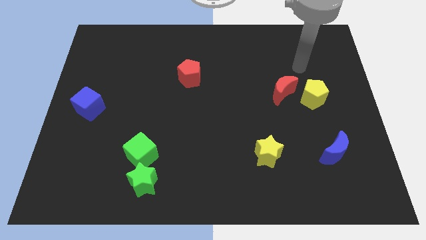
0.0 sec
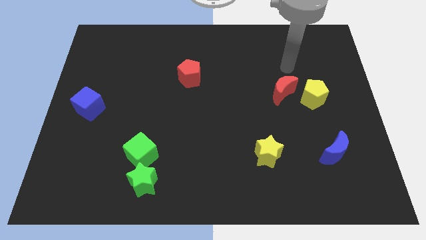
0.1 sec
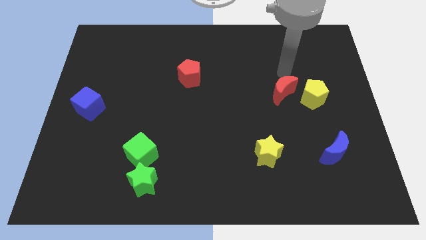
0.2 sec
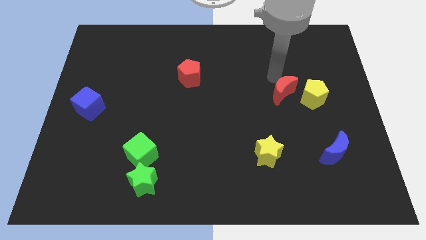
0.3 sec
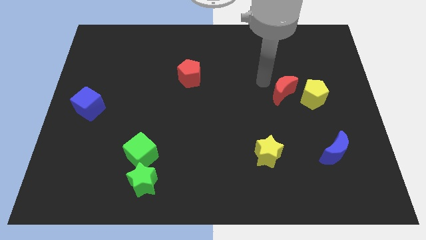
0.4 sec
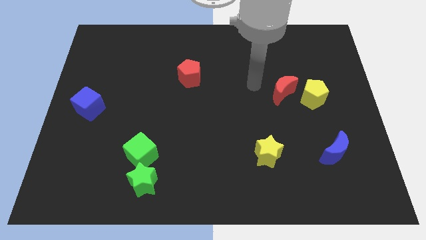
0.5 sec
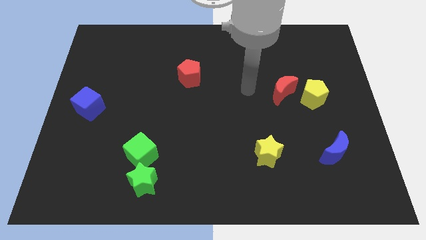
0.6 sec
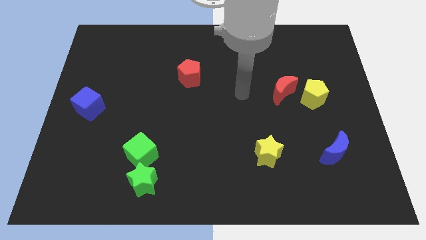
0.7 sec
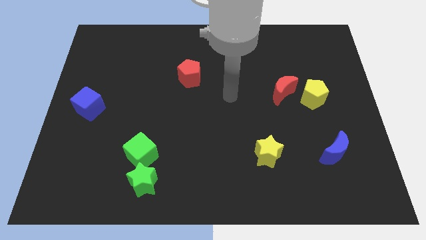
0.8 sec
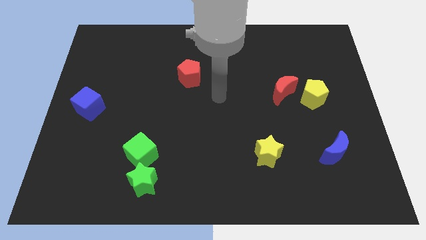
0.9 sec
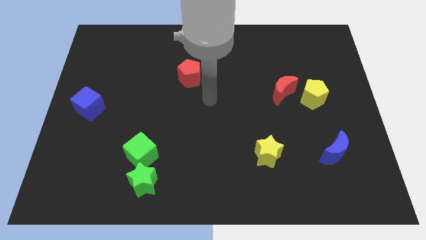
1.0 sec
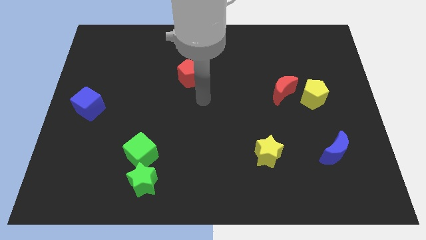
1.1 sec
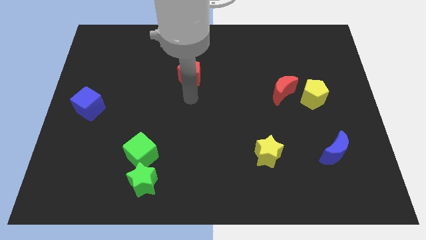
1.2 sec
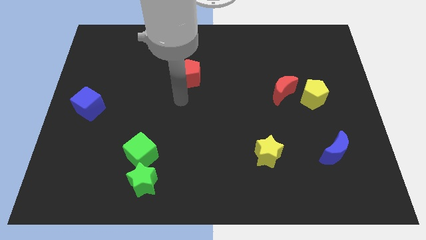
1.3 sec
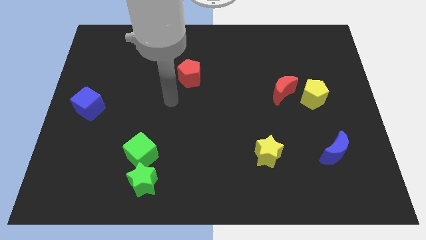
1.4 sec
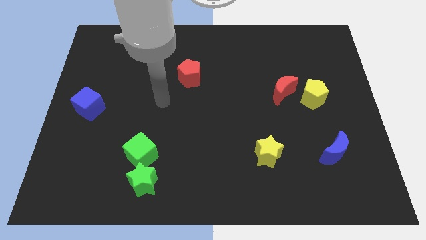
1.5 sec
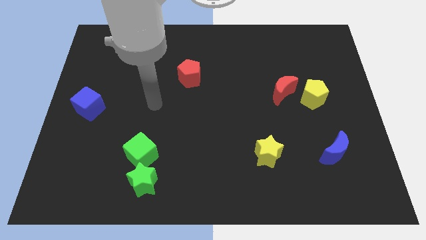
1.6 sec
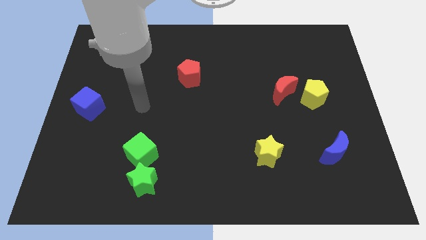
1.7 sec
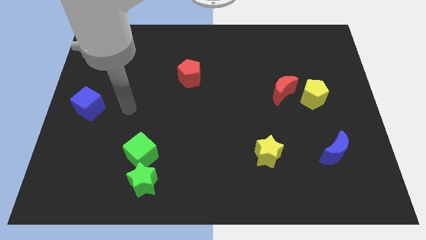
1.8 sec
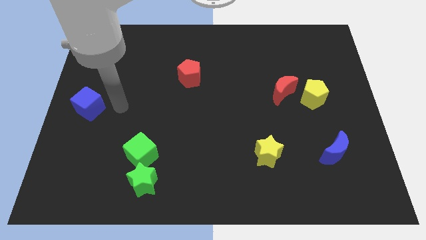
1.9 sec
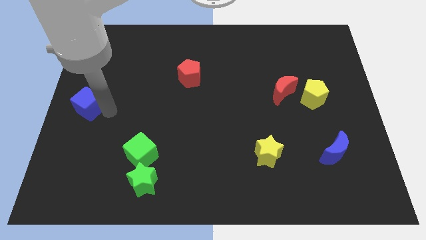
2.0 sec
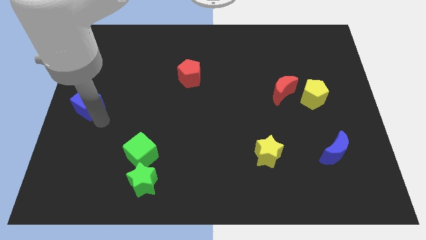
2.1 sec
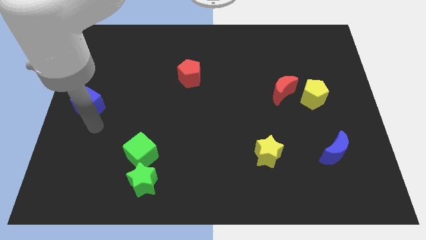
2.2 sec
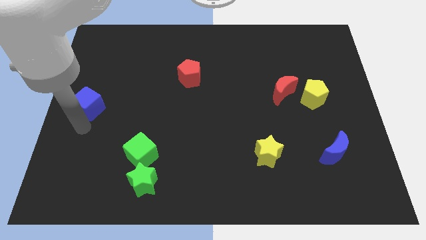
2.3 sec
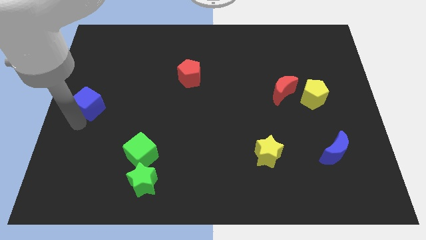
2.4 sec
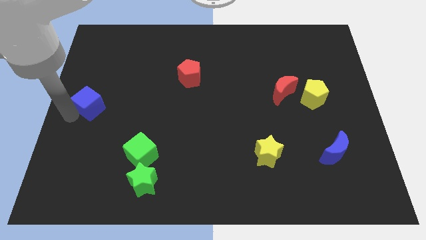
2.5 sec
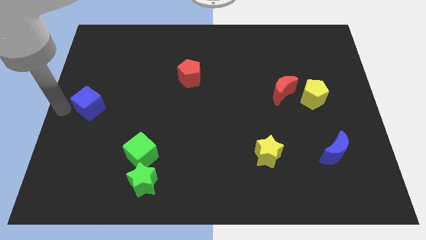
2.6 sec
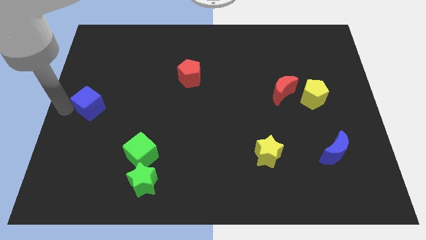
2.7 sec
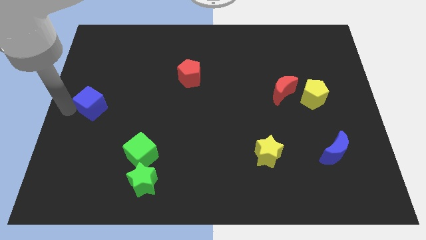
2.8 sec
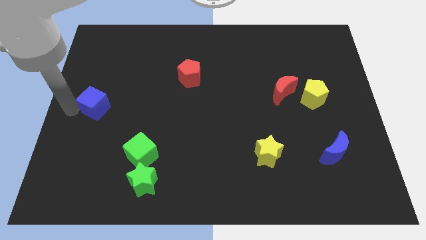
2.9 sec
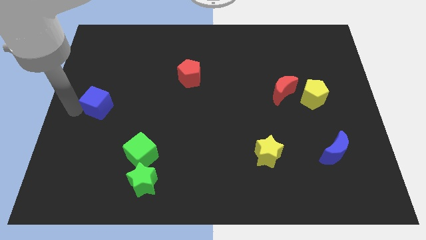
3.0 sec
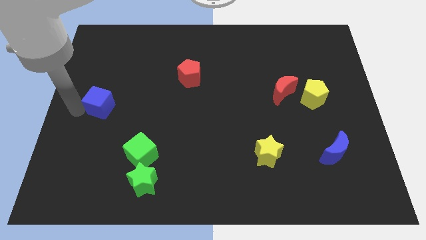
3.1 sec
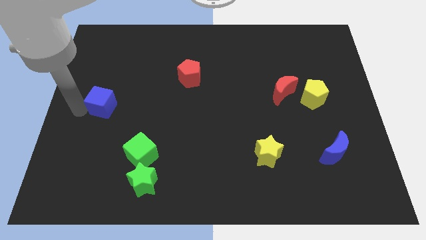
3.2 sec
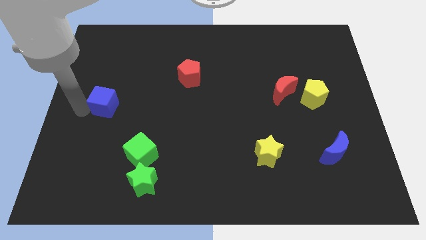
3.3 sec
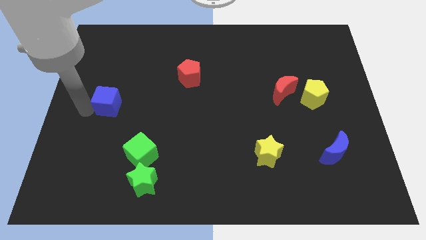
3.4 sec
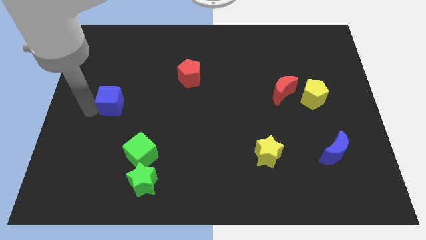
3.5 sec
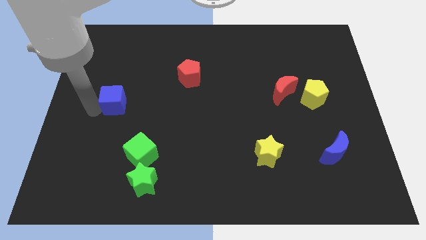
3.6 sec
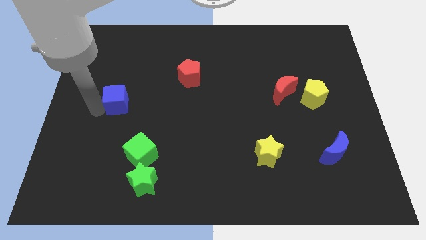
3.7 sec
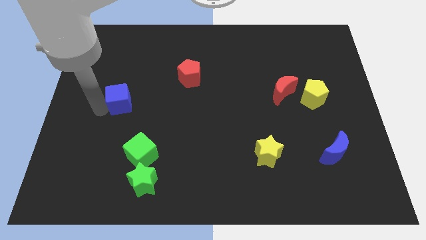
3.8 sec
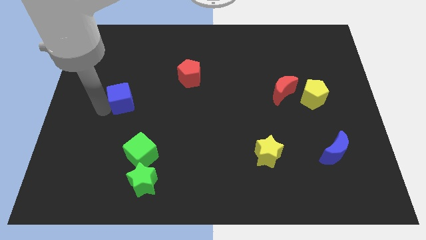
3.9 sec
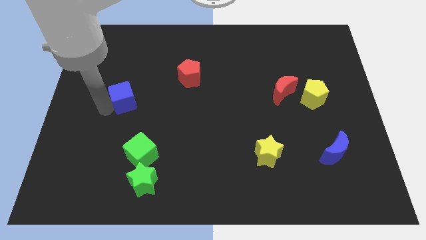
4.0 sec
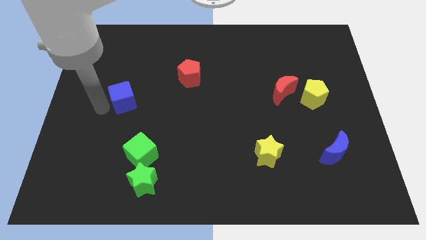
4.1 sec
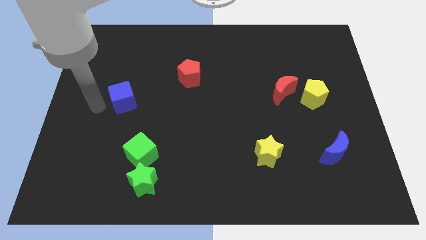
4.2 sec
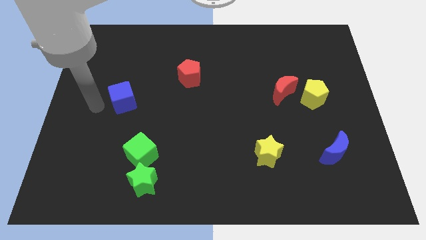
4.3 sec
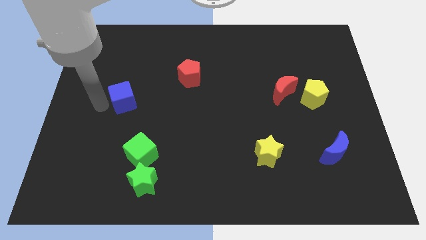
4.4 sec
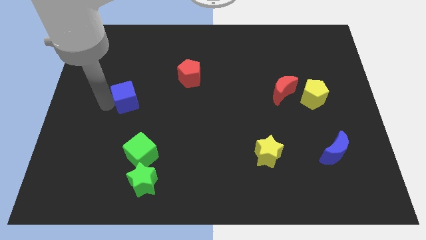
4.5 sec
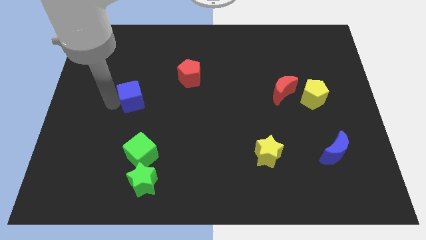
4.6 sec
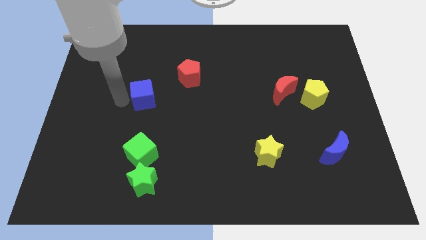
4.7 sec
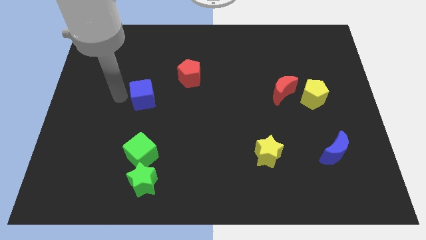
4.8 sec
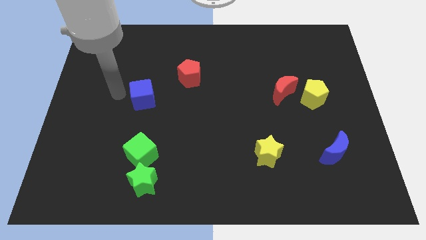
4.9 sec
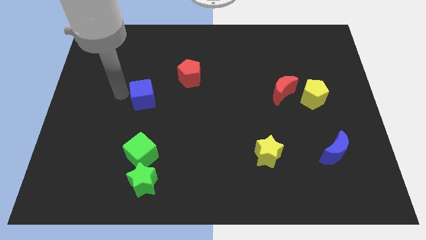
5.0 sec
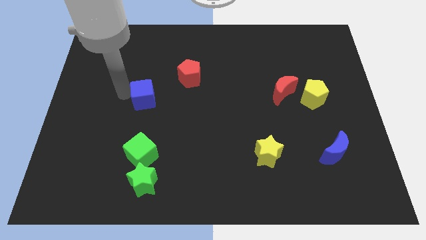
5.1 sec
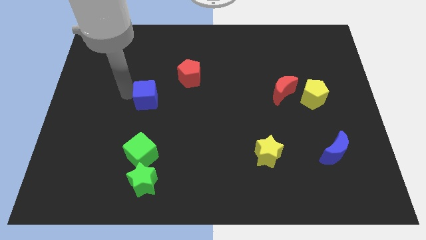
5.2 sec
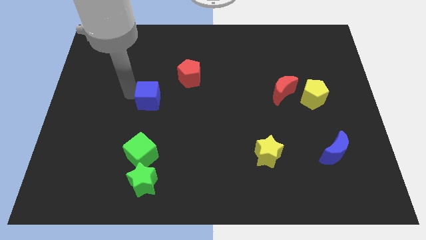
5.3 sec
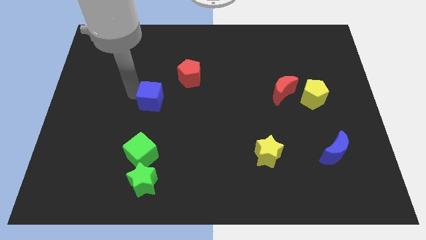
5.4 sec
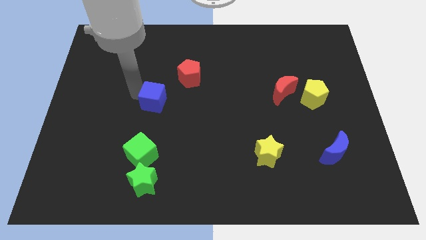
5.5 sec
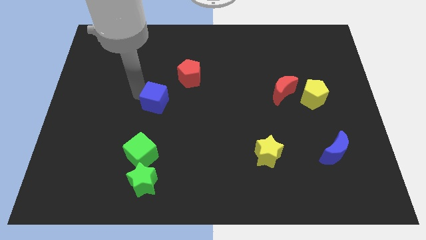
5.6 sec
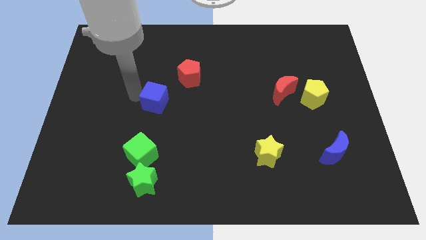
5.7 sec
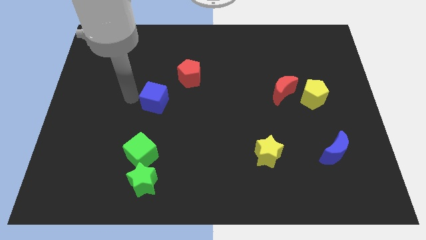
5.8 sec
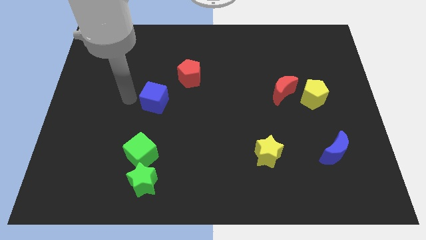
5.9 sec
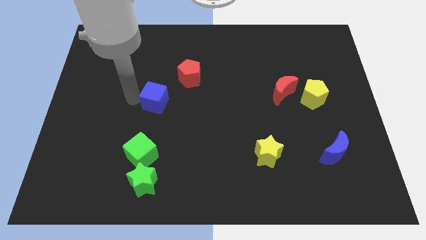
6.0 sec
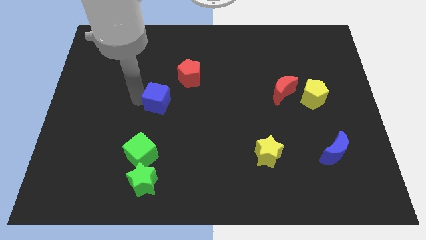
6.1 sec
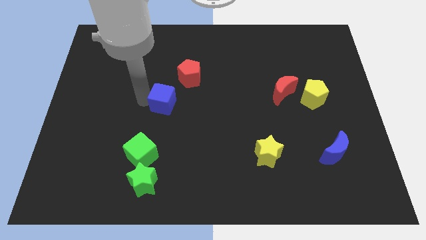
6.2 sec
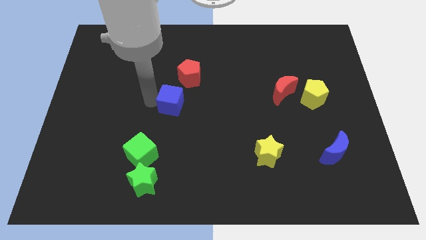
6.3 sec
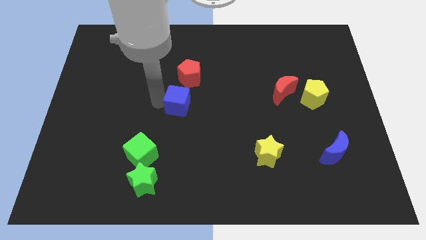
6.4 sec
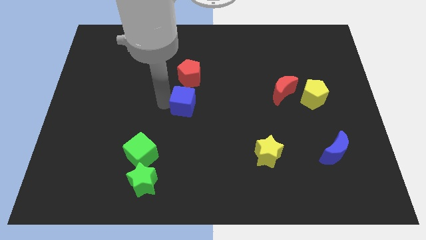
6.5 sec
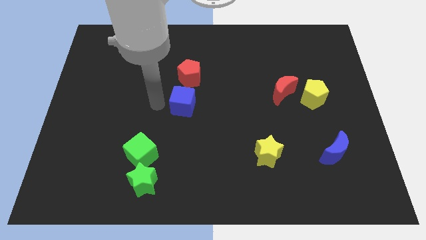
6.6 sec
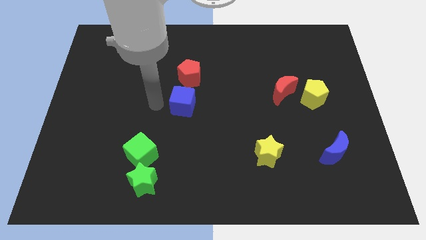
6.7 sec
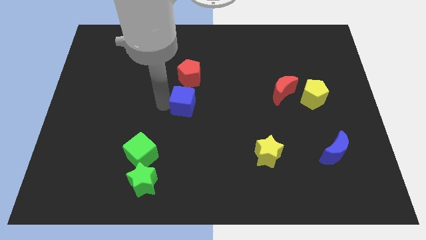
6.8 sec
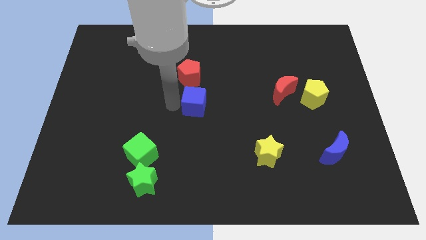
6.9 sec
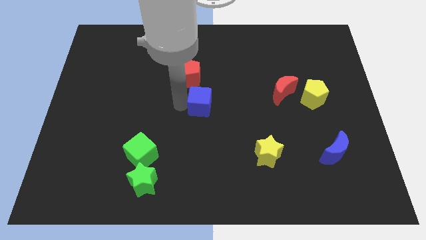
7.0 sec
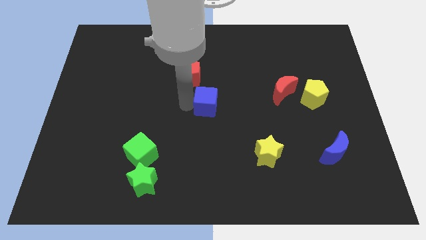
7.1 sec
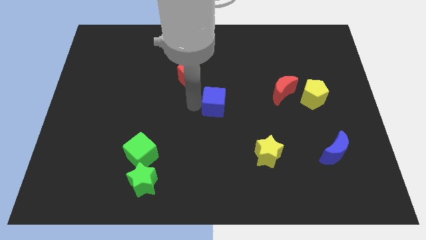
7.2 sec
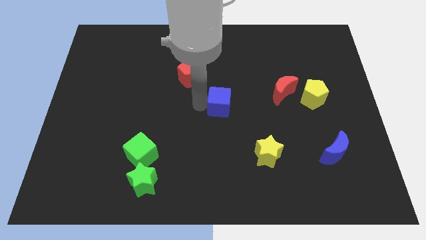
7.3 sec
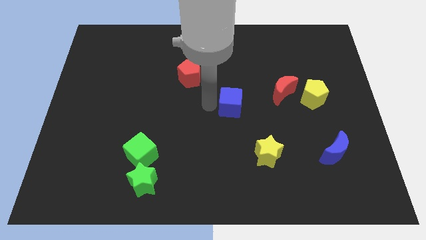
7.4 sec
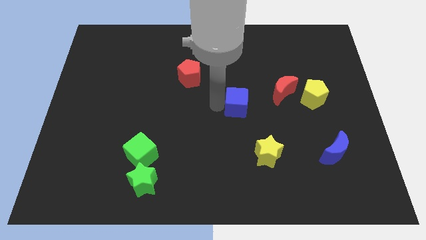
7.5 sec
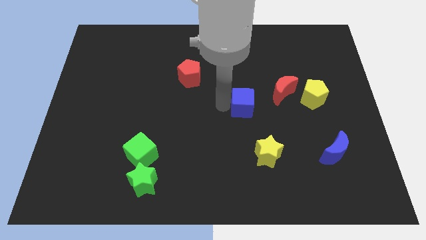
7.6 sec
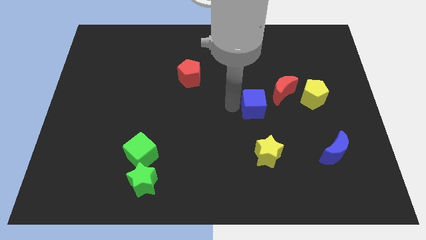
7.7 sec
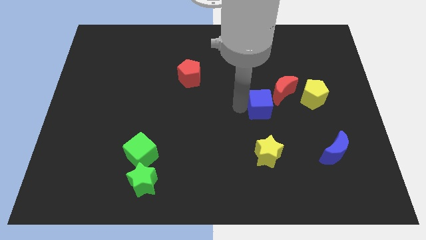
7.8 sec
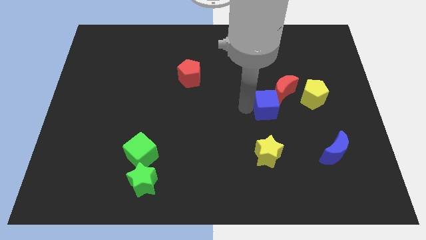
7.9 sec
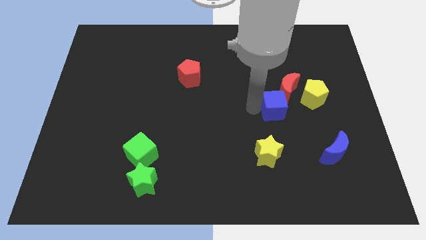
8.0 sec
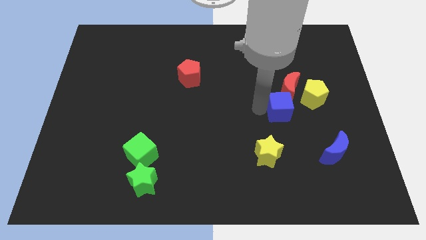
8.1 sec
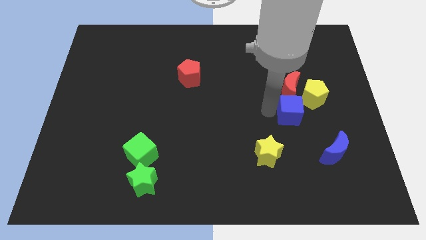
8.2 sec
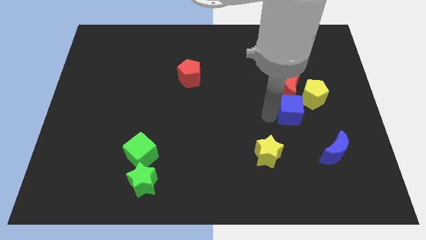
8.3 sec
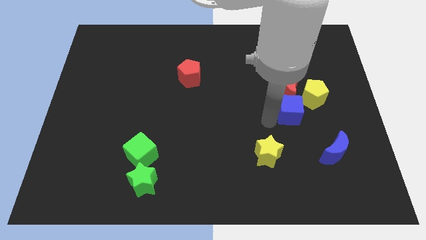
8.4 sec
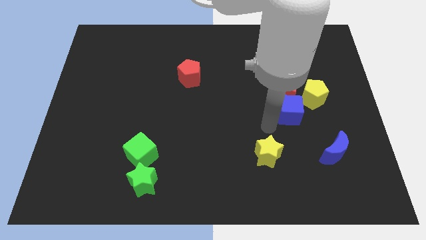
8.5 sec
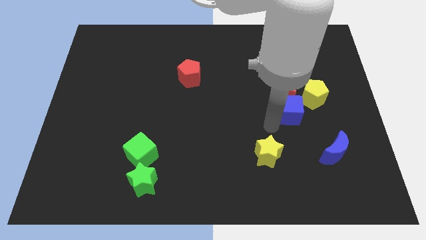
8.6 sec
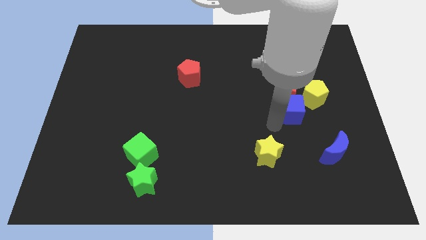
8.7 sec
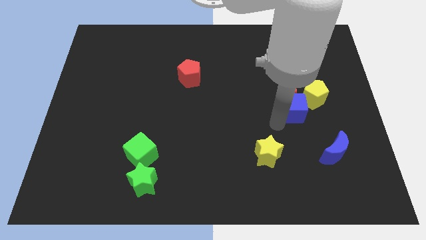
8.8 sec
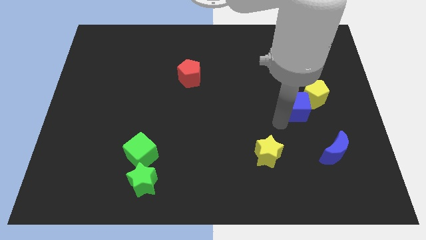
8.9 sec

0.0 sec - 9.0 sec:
push the blue cube next to the yellow pentagon
